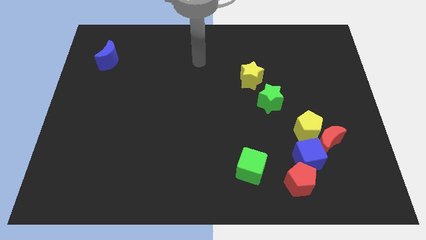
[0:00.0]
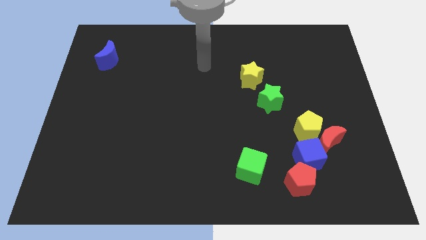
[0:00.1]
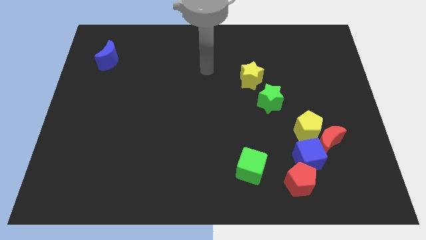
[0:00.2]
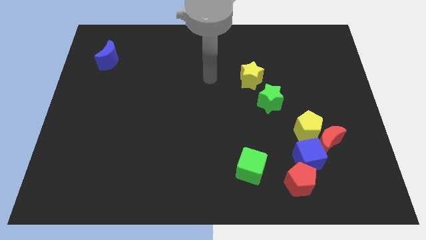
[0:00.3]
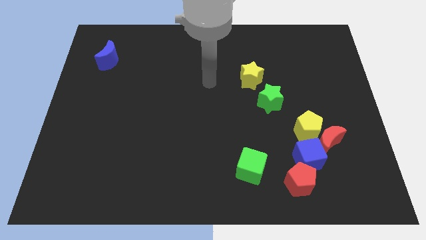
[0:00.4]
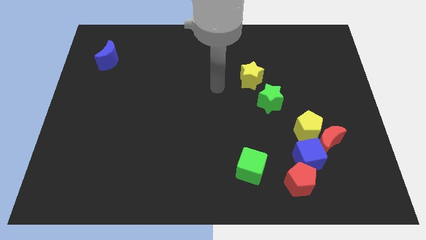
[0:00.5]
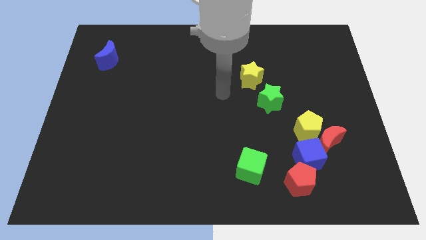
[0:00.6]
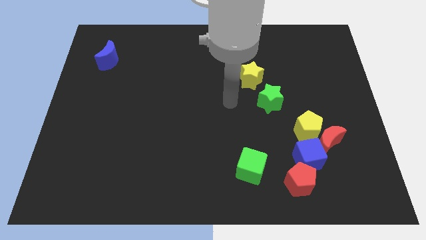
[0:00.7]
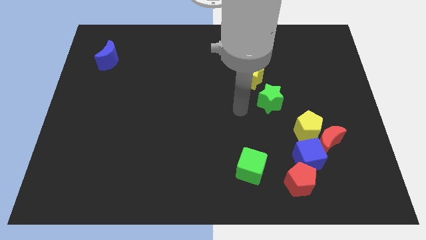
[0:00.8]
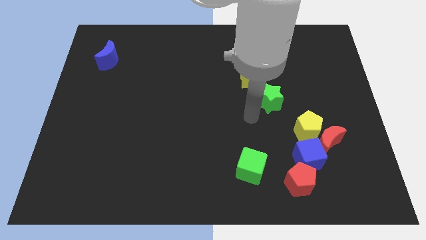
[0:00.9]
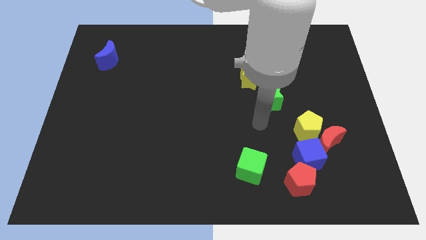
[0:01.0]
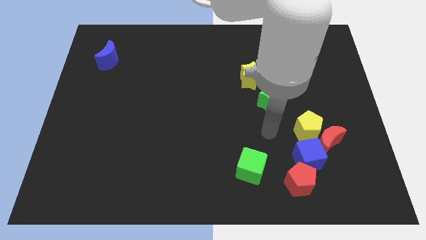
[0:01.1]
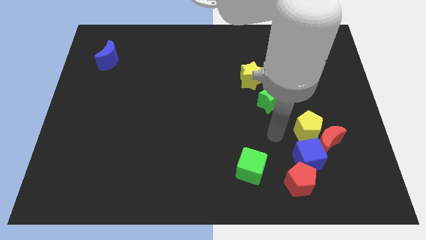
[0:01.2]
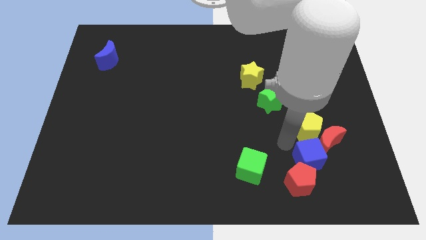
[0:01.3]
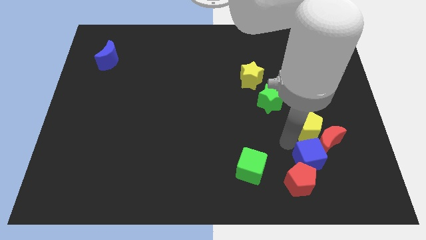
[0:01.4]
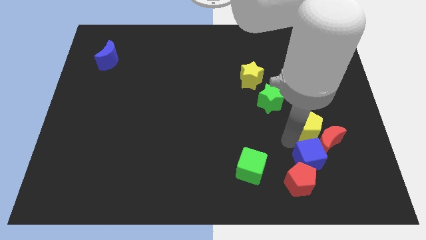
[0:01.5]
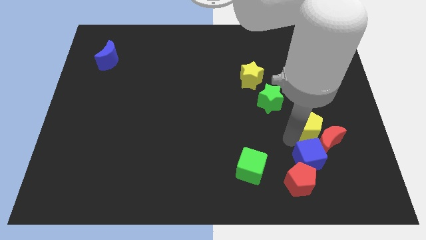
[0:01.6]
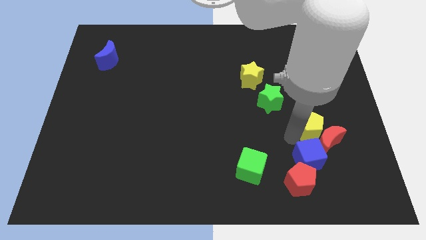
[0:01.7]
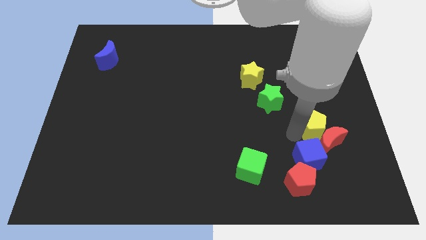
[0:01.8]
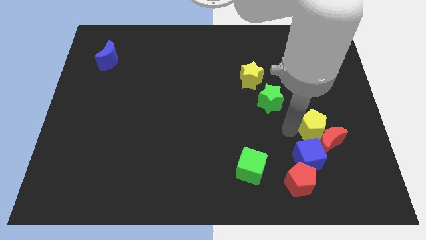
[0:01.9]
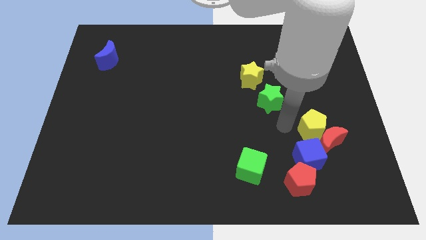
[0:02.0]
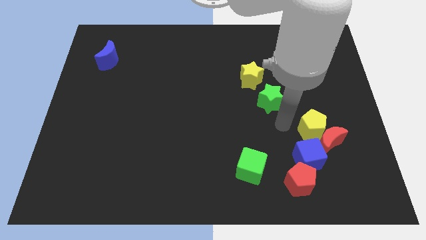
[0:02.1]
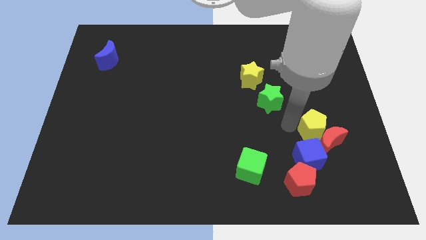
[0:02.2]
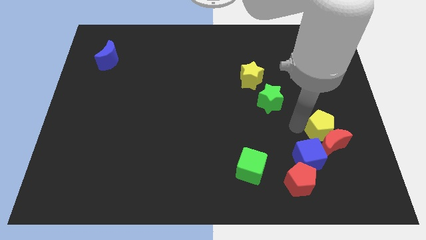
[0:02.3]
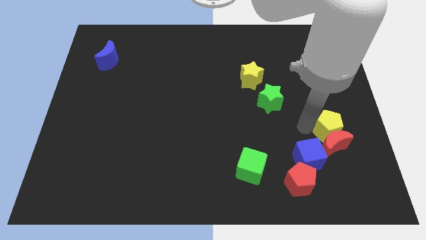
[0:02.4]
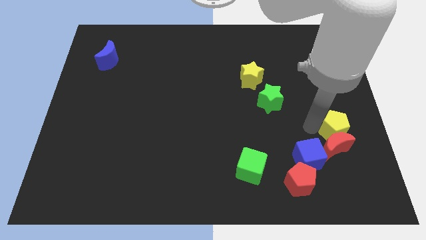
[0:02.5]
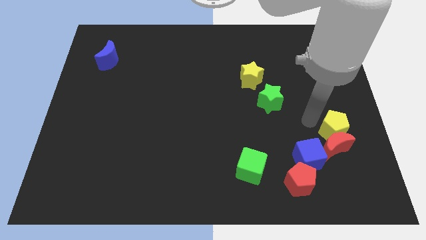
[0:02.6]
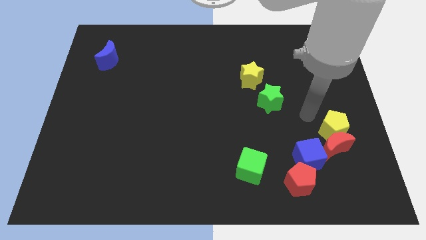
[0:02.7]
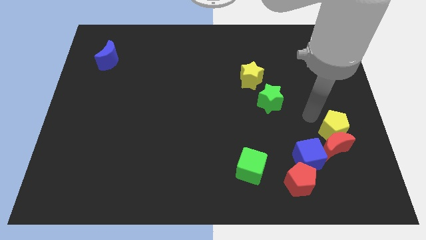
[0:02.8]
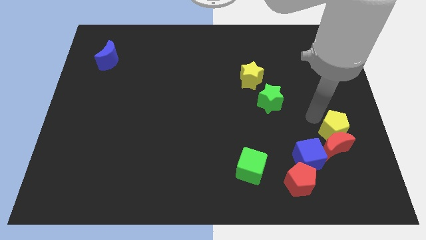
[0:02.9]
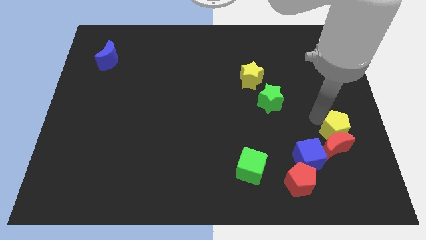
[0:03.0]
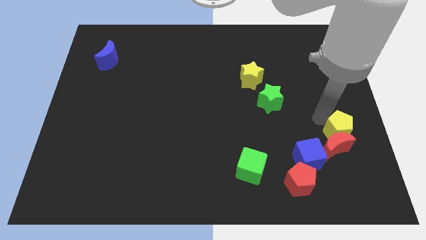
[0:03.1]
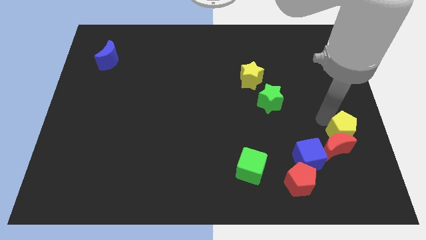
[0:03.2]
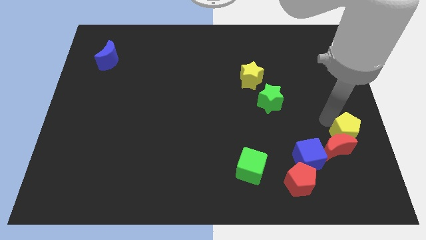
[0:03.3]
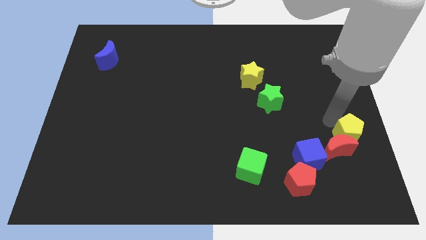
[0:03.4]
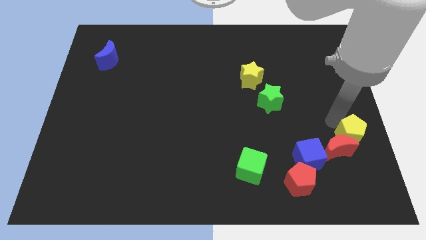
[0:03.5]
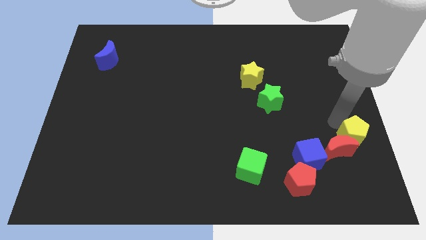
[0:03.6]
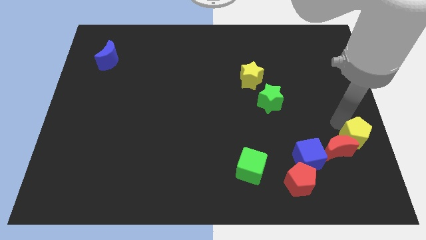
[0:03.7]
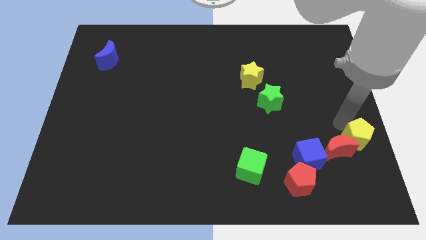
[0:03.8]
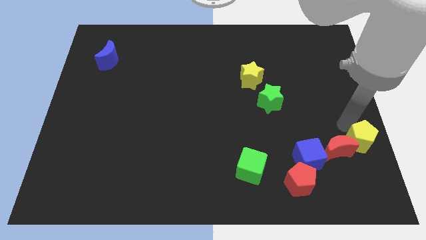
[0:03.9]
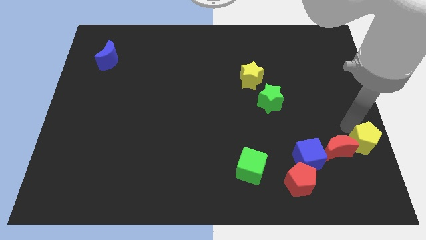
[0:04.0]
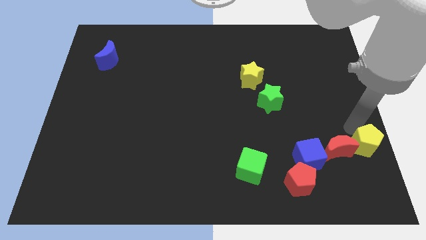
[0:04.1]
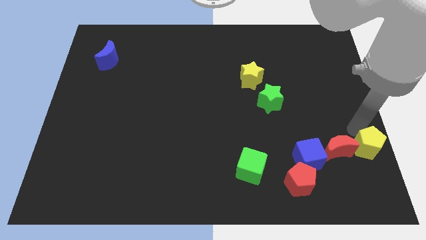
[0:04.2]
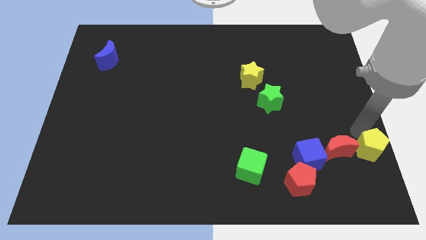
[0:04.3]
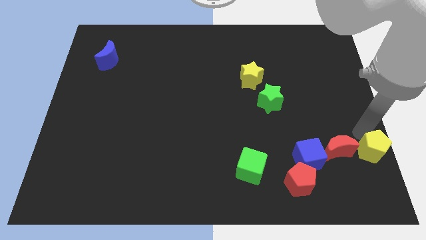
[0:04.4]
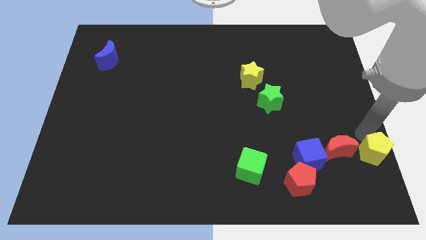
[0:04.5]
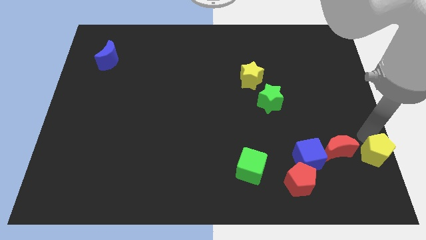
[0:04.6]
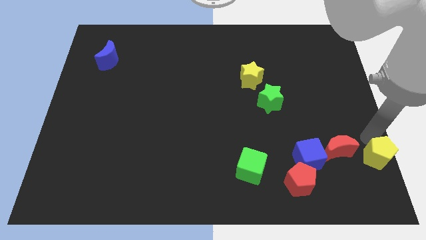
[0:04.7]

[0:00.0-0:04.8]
move the yellow pentagon to the bottom right

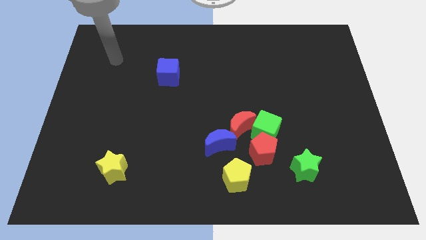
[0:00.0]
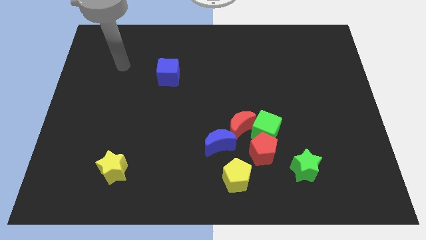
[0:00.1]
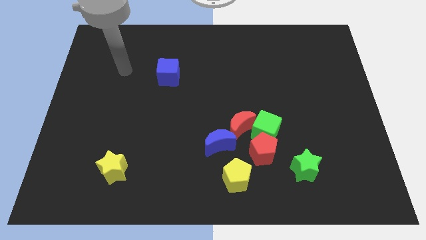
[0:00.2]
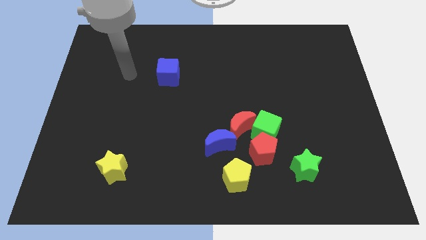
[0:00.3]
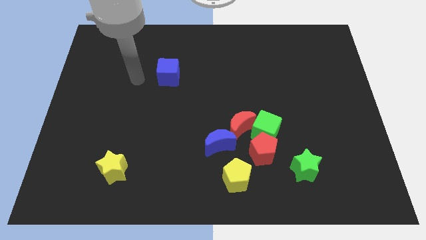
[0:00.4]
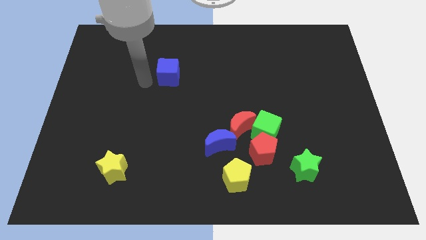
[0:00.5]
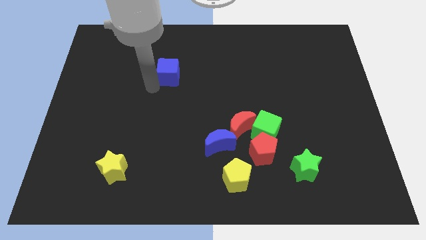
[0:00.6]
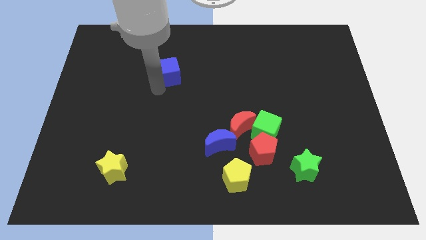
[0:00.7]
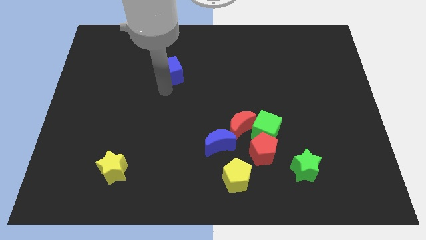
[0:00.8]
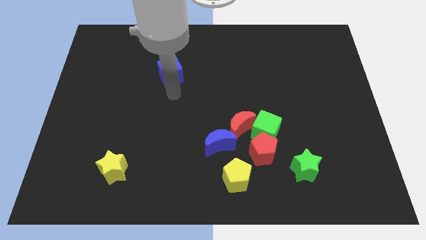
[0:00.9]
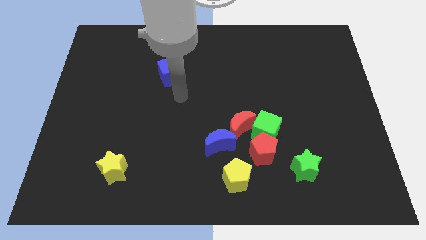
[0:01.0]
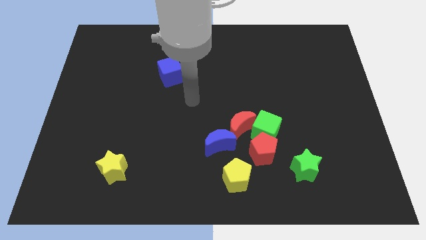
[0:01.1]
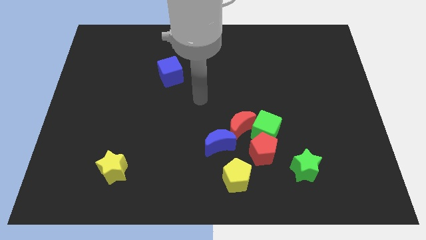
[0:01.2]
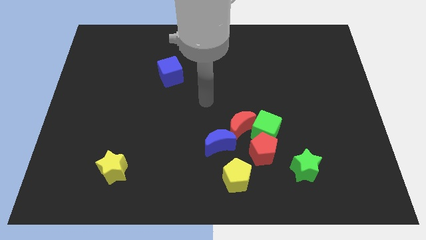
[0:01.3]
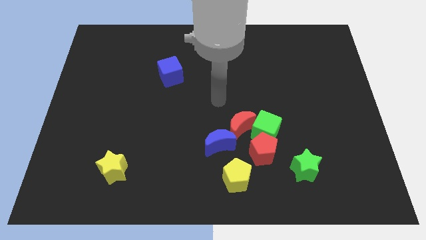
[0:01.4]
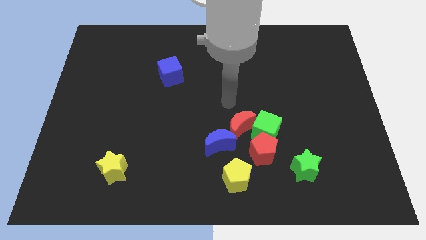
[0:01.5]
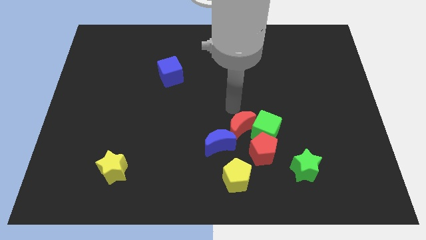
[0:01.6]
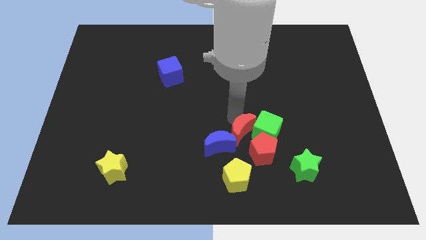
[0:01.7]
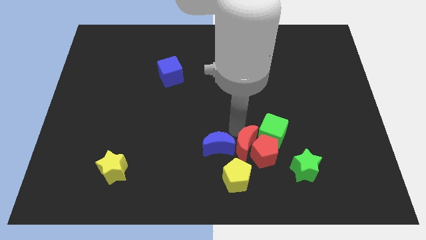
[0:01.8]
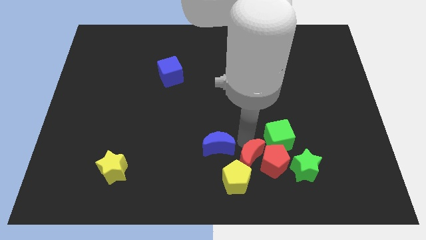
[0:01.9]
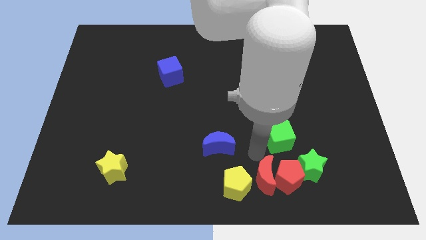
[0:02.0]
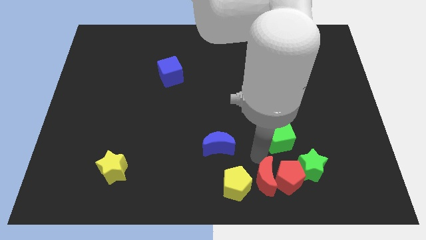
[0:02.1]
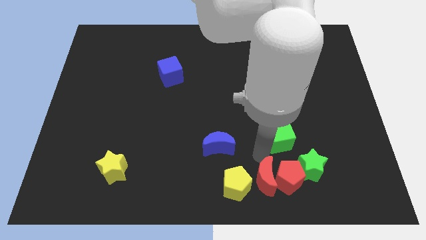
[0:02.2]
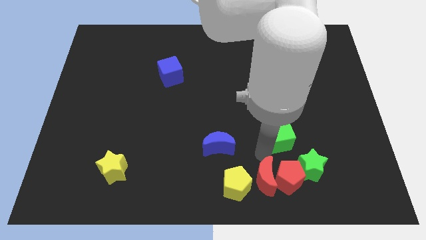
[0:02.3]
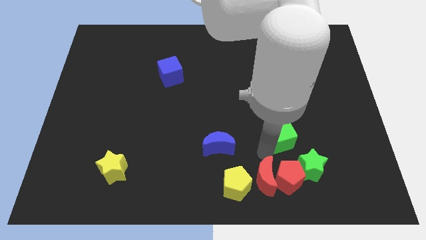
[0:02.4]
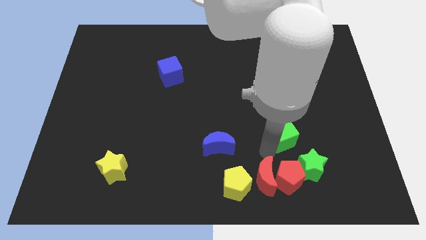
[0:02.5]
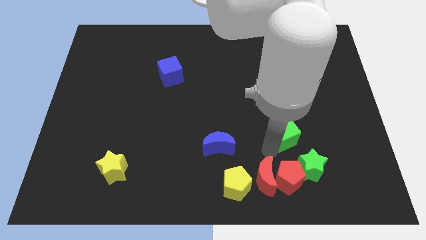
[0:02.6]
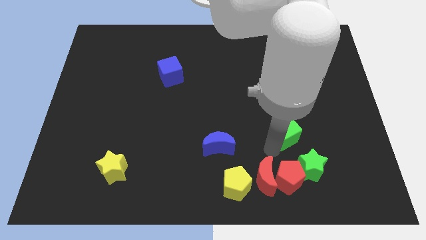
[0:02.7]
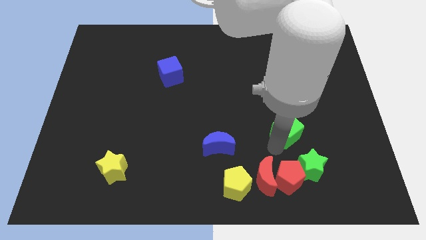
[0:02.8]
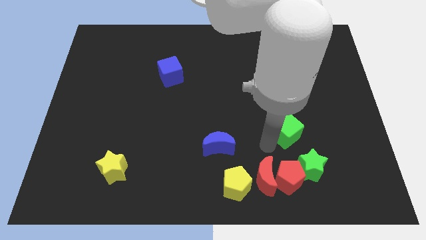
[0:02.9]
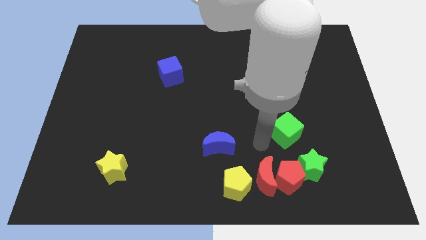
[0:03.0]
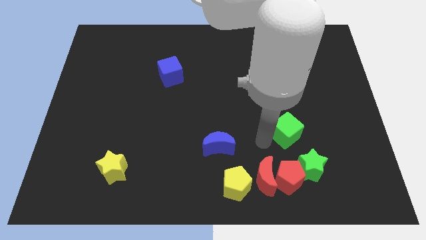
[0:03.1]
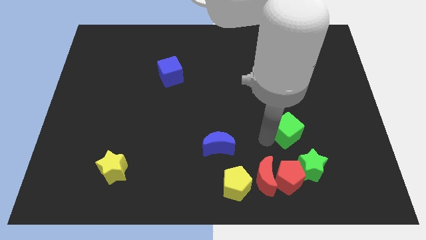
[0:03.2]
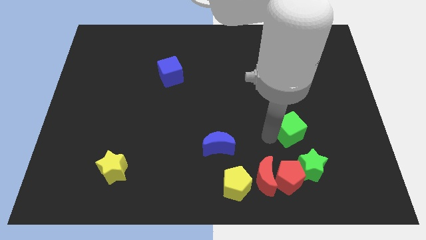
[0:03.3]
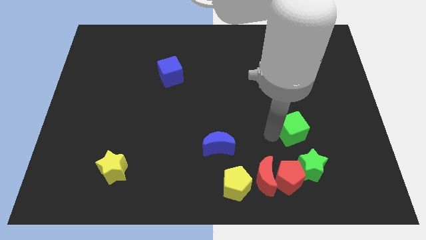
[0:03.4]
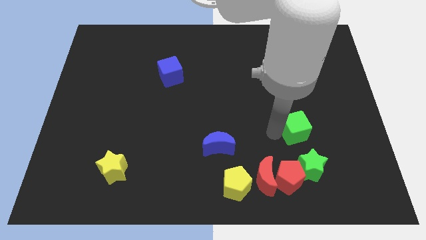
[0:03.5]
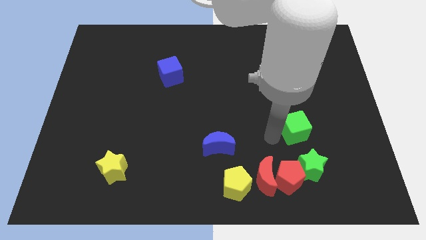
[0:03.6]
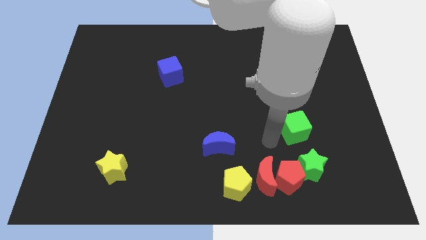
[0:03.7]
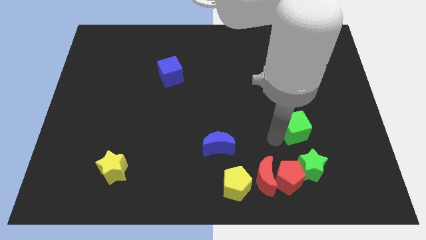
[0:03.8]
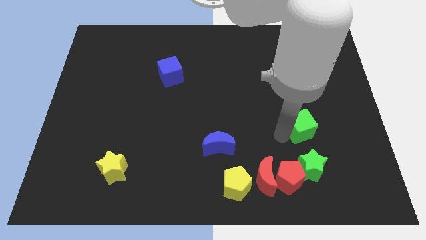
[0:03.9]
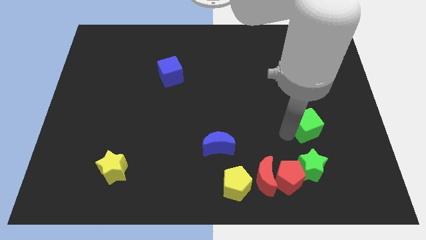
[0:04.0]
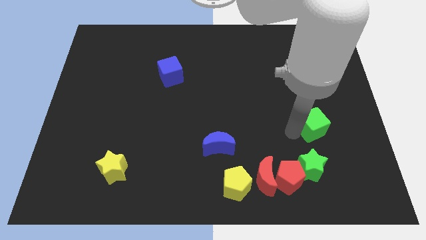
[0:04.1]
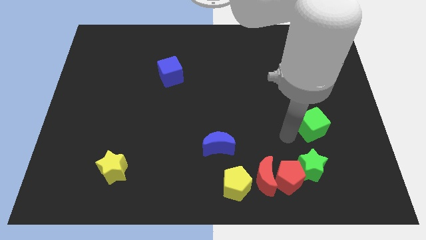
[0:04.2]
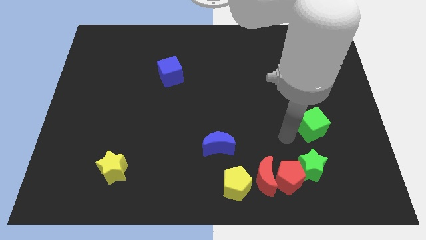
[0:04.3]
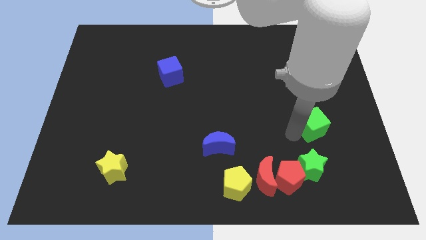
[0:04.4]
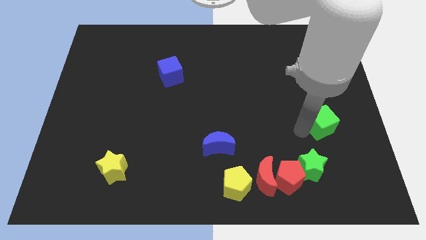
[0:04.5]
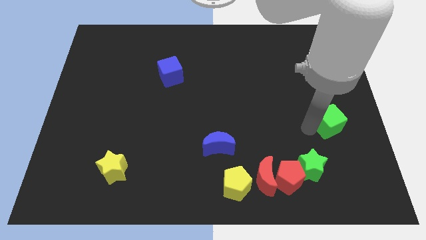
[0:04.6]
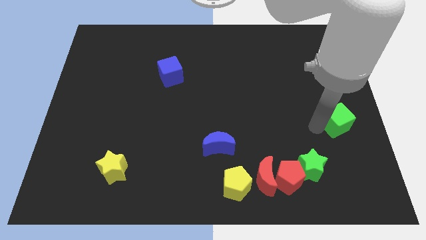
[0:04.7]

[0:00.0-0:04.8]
push the green cube to the right side
